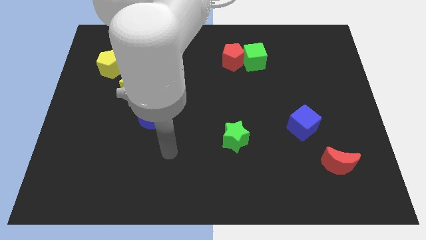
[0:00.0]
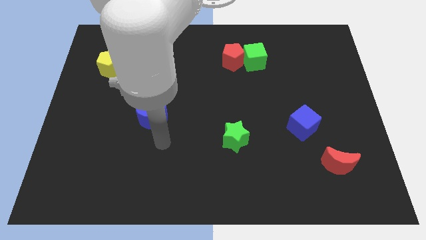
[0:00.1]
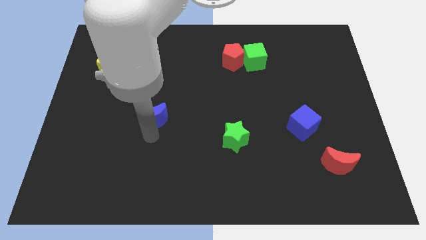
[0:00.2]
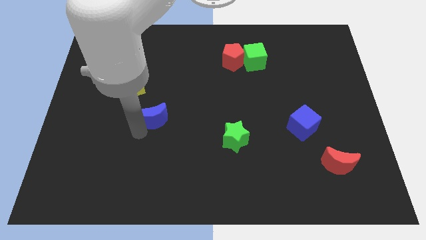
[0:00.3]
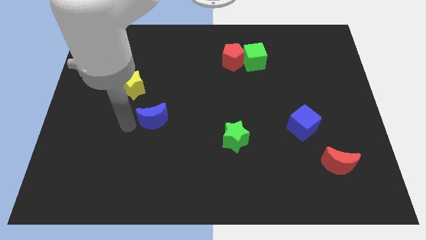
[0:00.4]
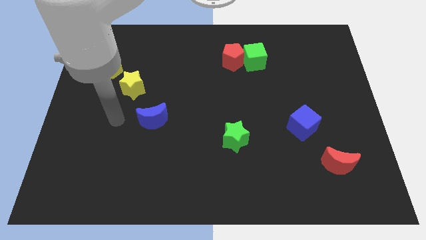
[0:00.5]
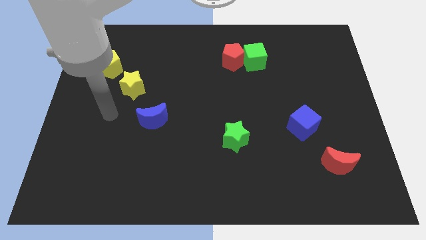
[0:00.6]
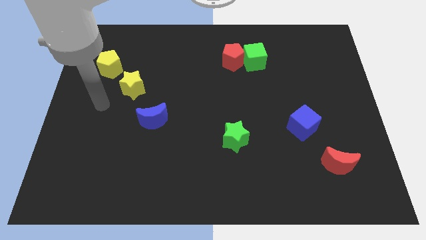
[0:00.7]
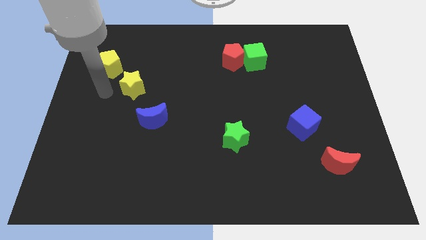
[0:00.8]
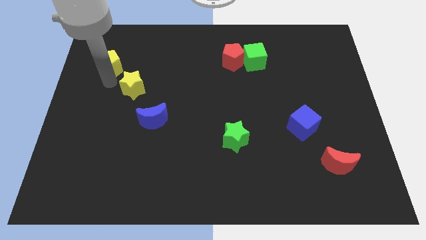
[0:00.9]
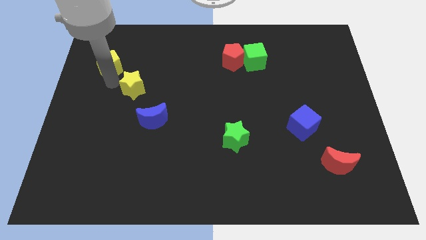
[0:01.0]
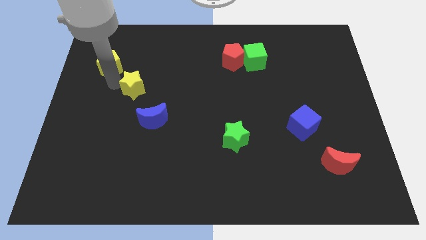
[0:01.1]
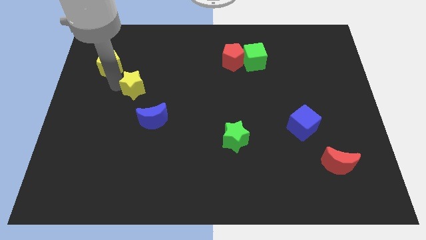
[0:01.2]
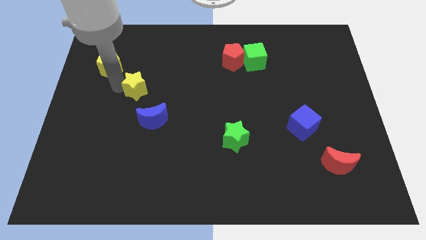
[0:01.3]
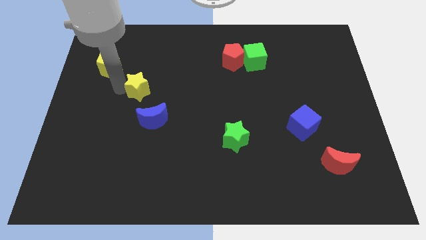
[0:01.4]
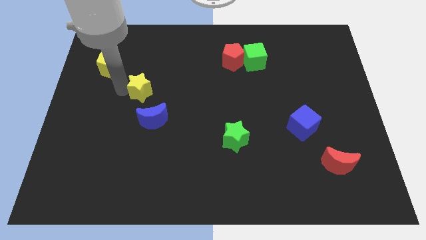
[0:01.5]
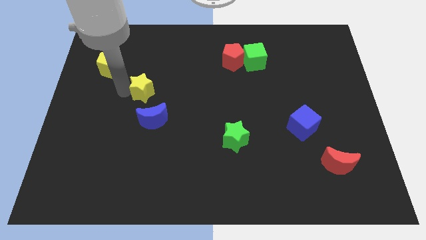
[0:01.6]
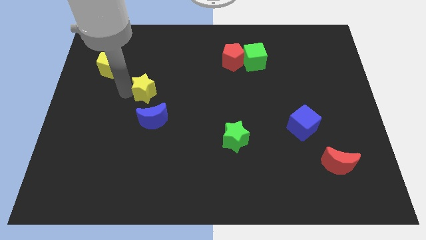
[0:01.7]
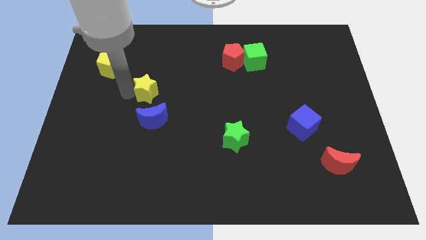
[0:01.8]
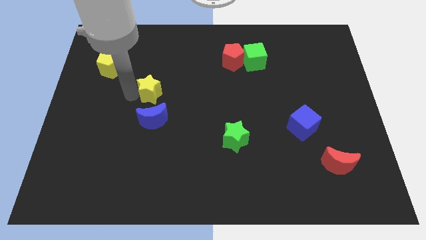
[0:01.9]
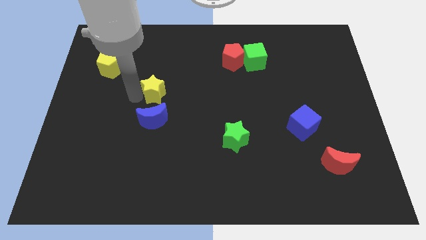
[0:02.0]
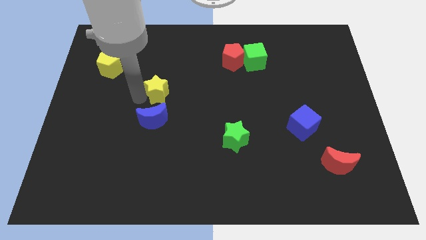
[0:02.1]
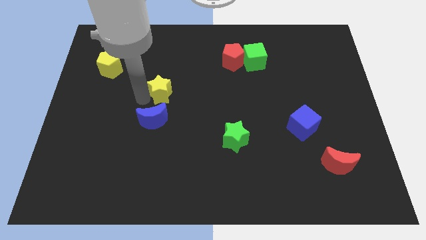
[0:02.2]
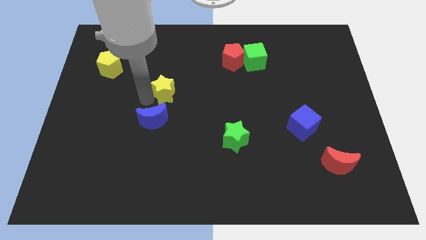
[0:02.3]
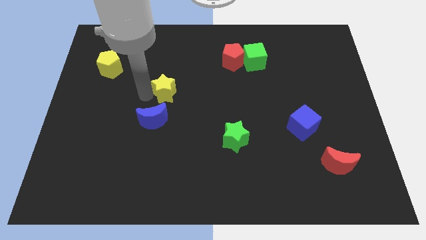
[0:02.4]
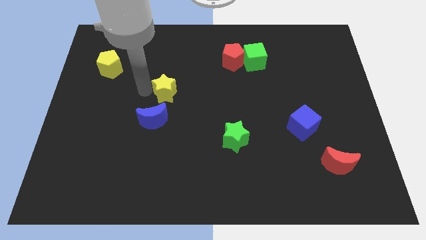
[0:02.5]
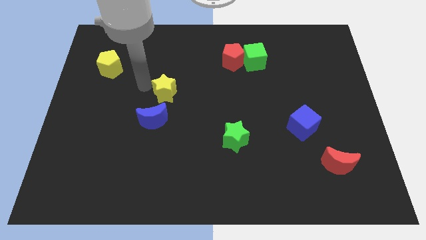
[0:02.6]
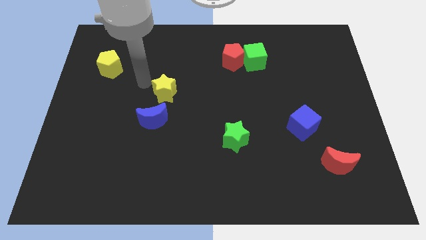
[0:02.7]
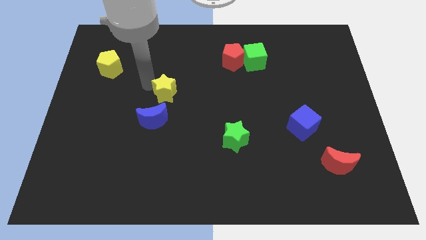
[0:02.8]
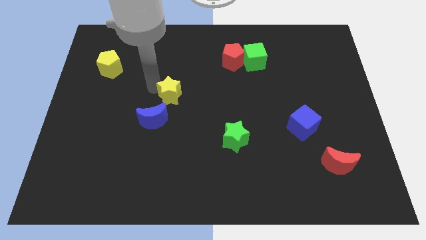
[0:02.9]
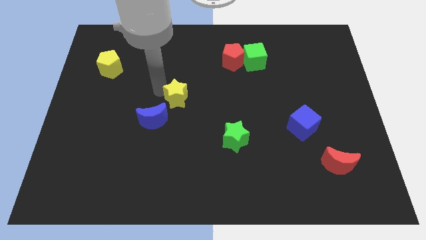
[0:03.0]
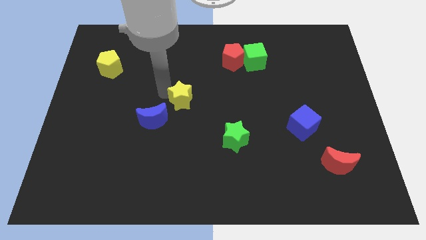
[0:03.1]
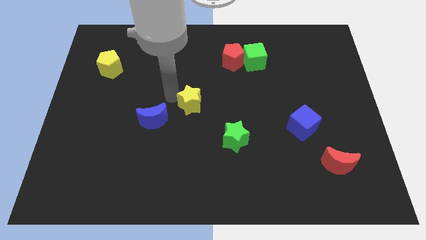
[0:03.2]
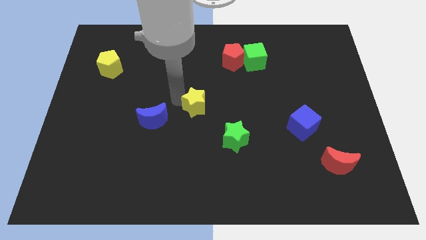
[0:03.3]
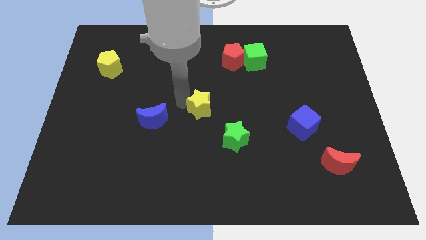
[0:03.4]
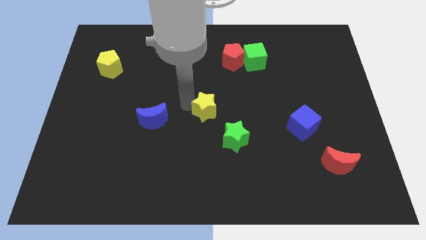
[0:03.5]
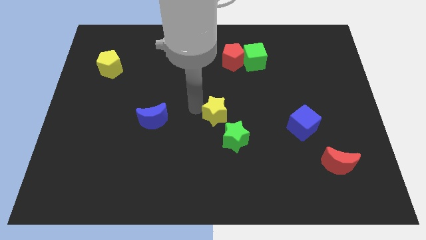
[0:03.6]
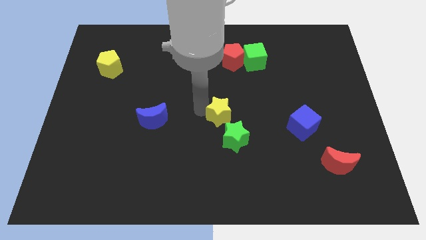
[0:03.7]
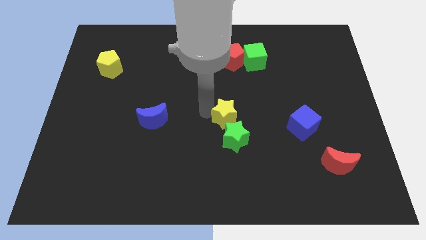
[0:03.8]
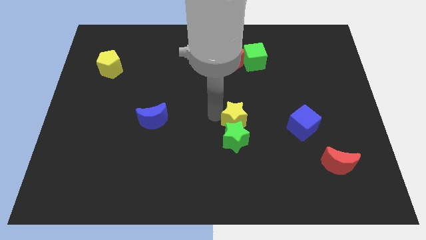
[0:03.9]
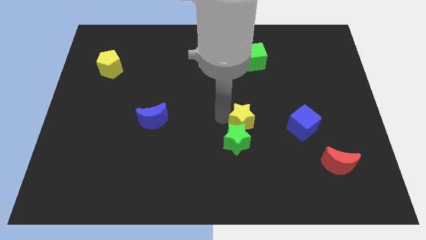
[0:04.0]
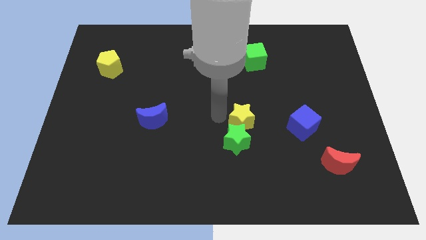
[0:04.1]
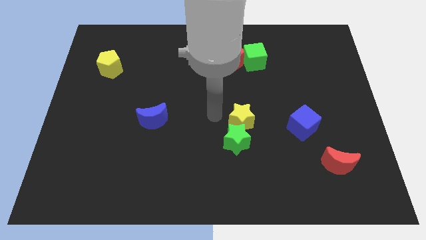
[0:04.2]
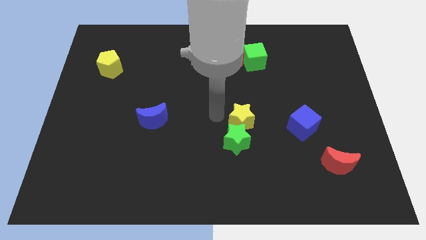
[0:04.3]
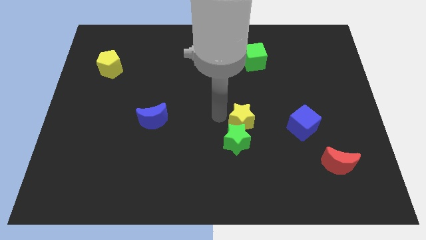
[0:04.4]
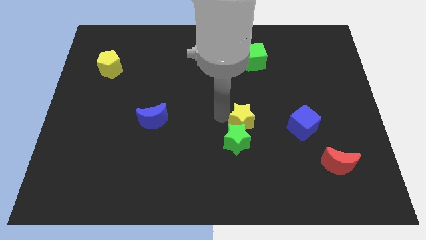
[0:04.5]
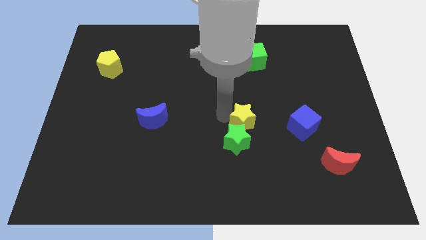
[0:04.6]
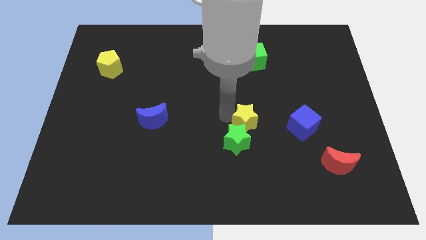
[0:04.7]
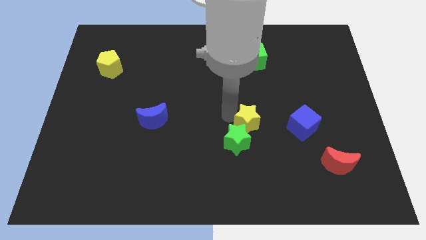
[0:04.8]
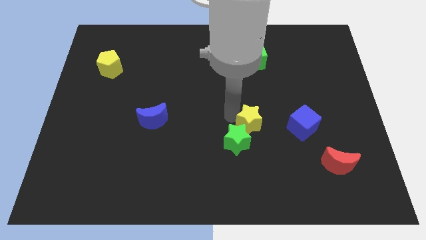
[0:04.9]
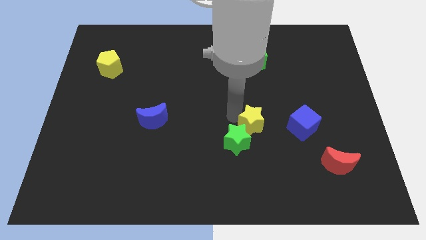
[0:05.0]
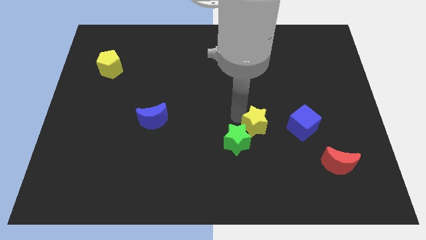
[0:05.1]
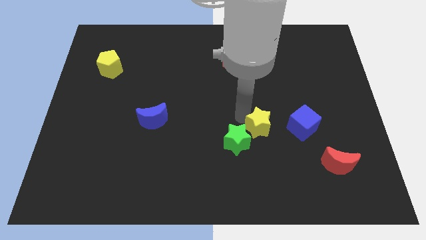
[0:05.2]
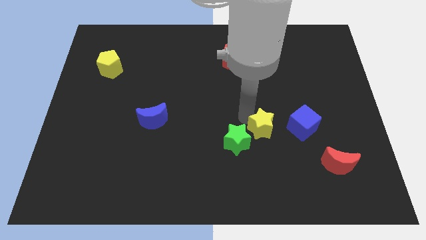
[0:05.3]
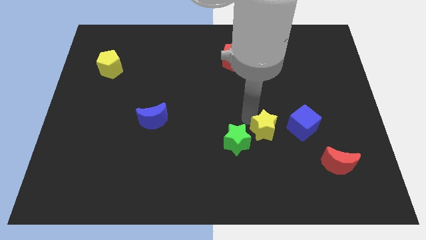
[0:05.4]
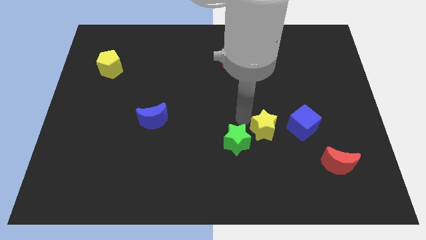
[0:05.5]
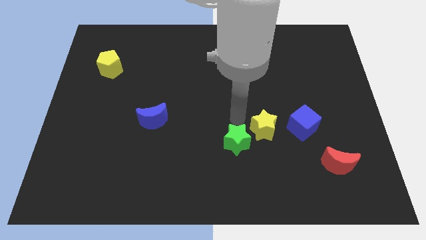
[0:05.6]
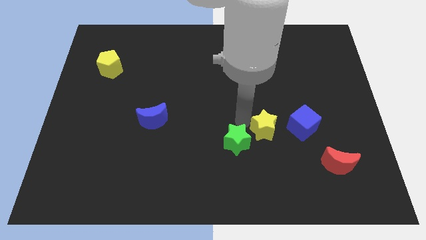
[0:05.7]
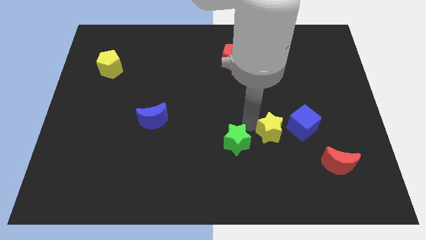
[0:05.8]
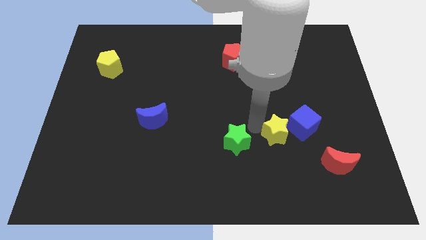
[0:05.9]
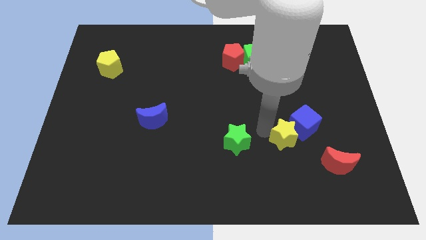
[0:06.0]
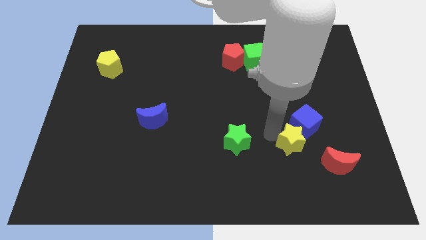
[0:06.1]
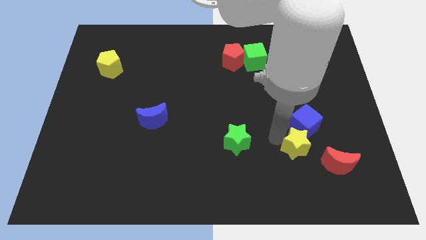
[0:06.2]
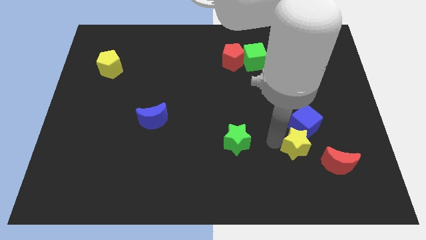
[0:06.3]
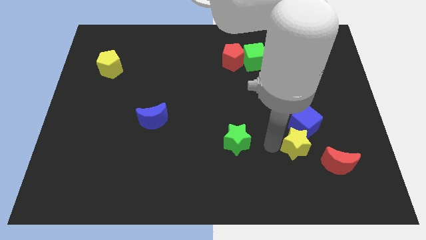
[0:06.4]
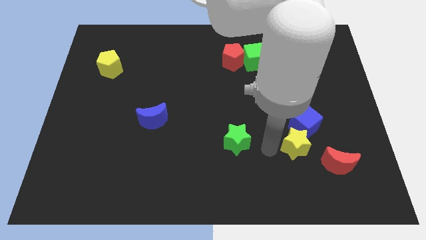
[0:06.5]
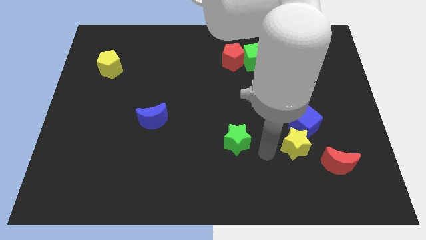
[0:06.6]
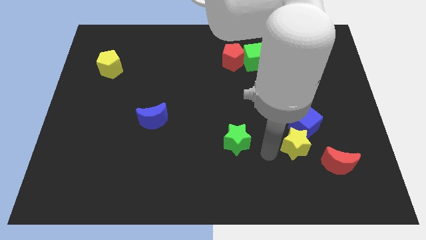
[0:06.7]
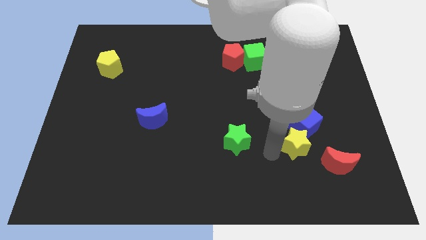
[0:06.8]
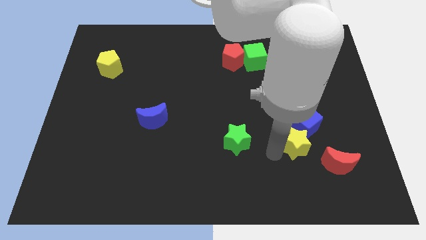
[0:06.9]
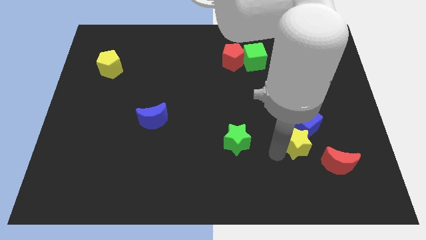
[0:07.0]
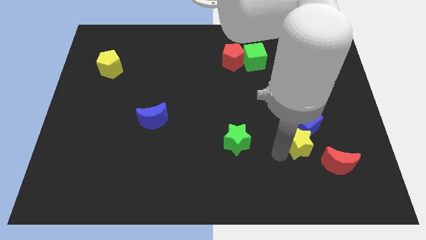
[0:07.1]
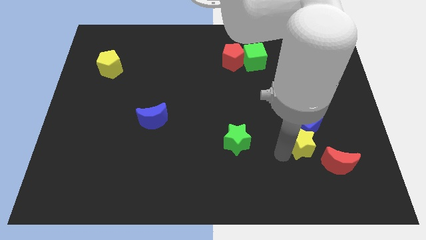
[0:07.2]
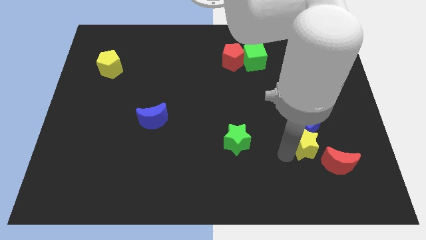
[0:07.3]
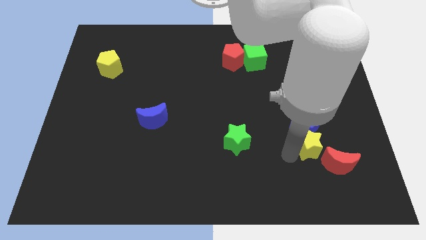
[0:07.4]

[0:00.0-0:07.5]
put the yellow star to the bottom right of the blue cube
